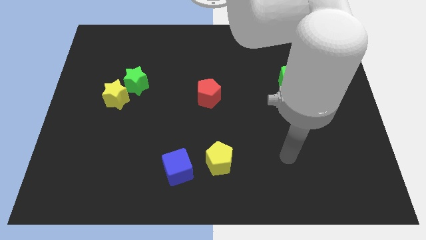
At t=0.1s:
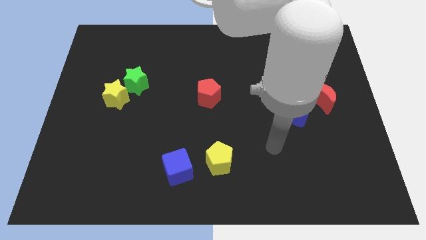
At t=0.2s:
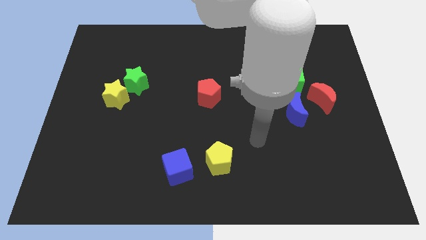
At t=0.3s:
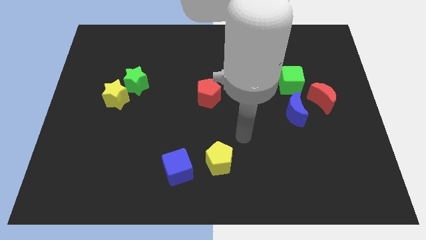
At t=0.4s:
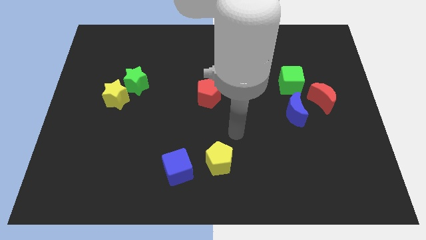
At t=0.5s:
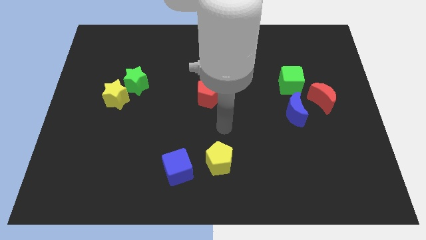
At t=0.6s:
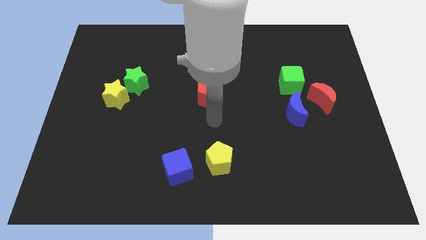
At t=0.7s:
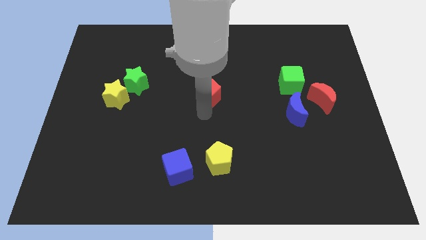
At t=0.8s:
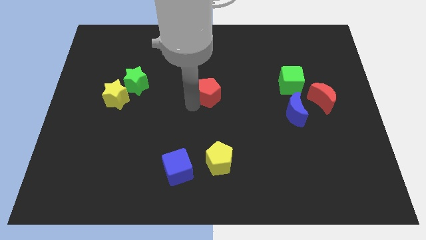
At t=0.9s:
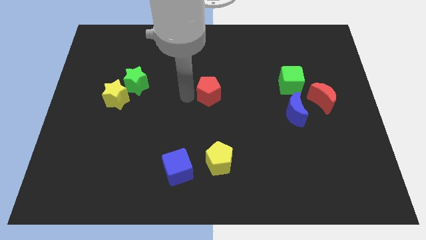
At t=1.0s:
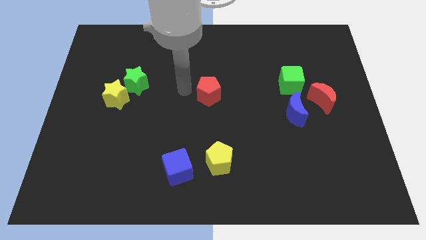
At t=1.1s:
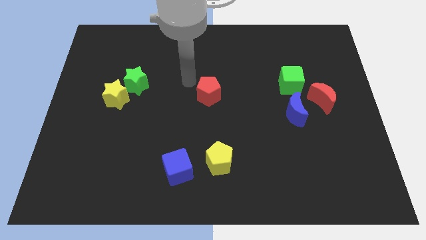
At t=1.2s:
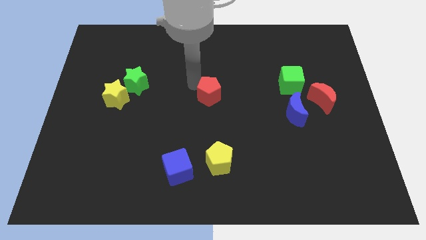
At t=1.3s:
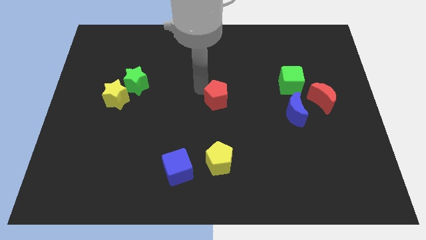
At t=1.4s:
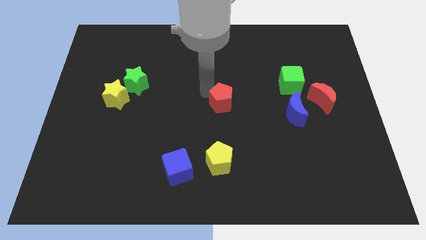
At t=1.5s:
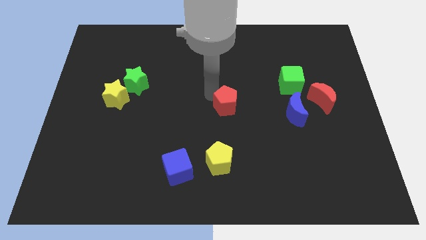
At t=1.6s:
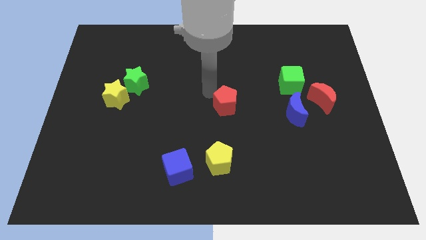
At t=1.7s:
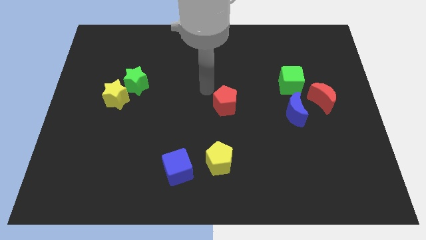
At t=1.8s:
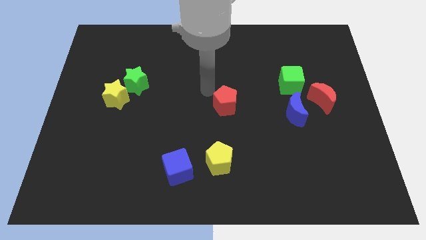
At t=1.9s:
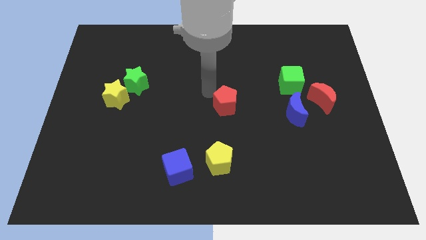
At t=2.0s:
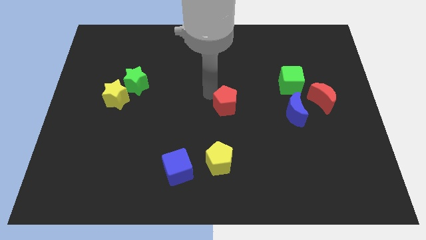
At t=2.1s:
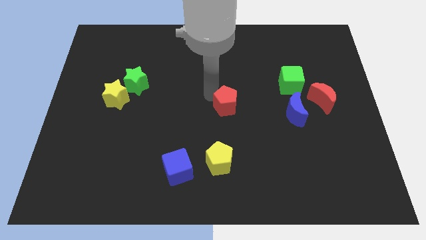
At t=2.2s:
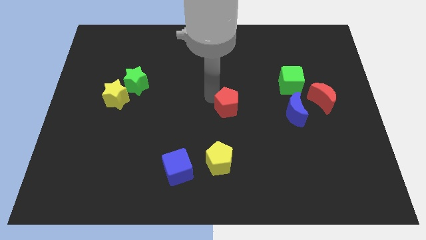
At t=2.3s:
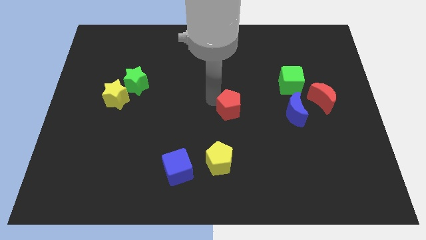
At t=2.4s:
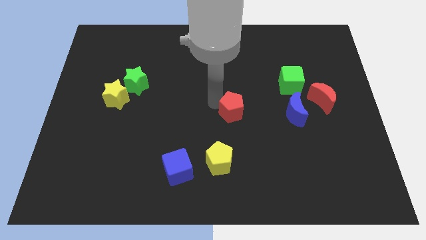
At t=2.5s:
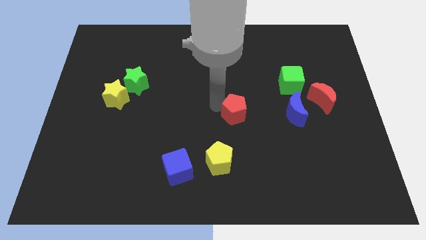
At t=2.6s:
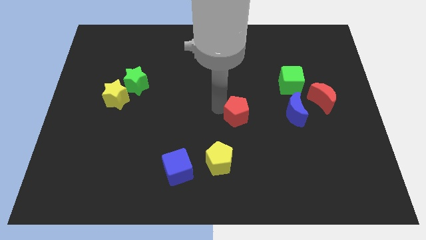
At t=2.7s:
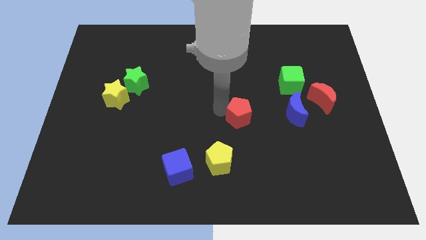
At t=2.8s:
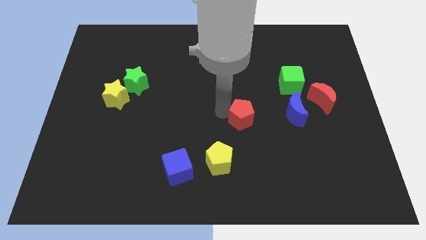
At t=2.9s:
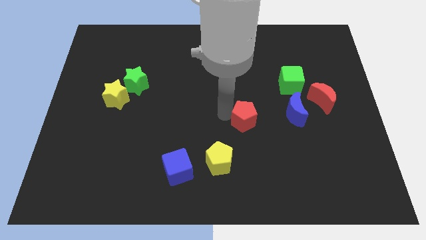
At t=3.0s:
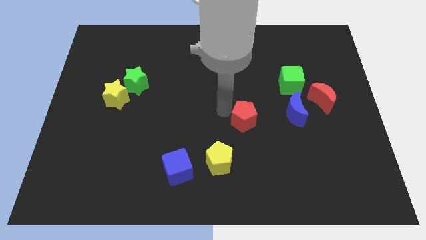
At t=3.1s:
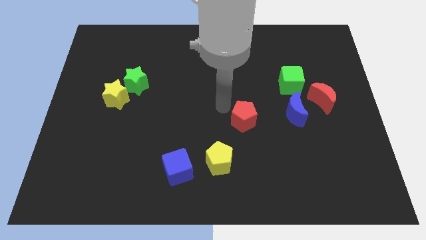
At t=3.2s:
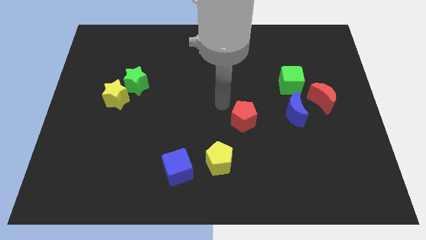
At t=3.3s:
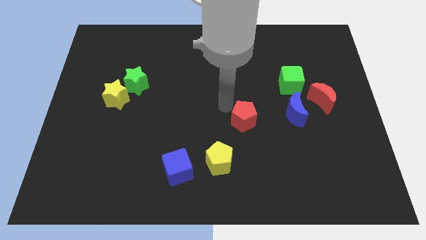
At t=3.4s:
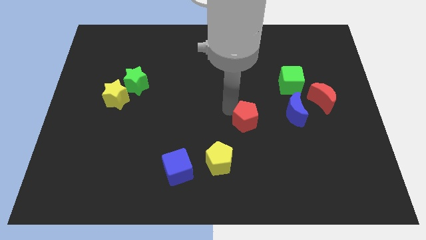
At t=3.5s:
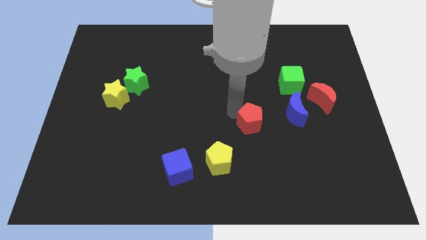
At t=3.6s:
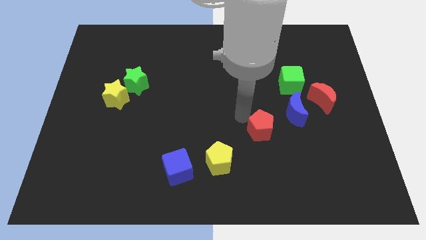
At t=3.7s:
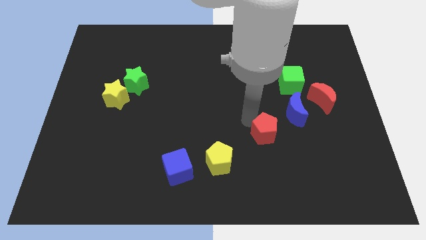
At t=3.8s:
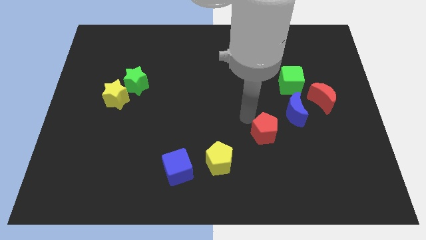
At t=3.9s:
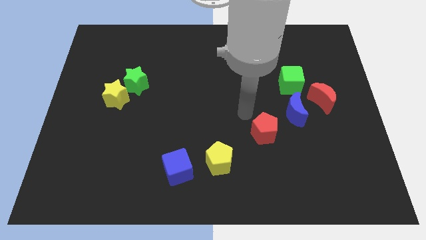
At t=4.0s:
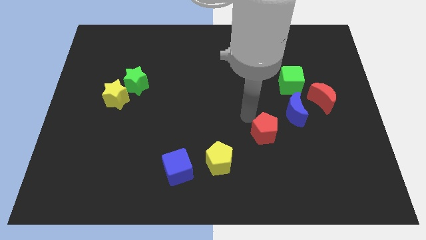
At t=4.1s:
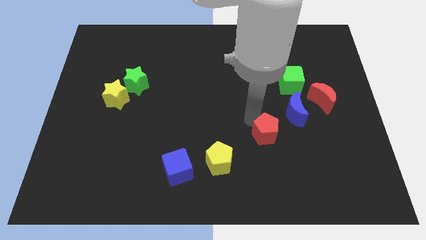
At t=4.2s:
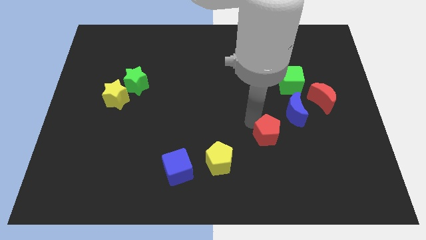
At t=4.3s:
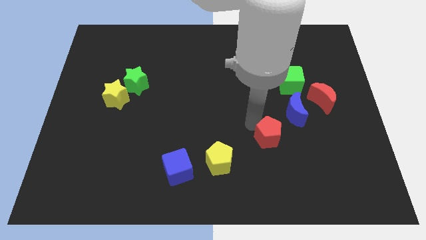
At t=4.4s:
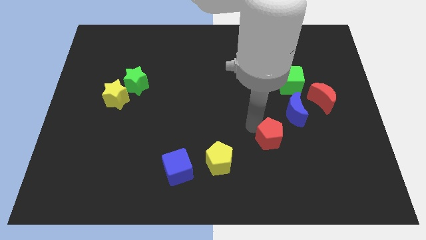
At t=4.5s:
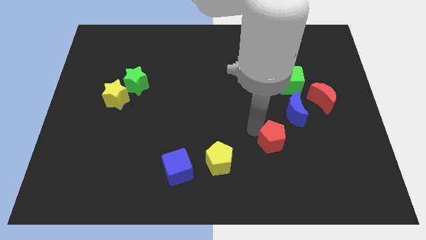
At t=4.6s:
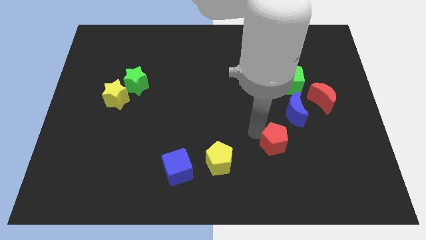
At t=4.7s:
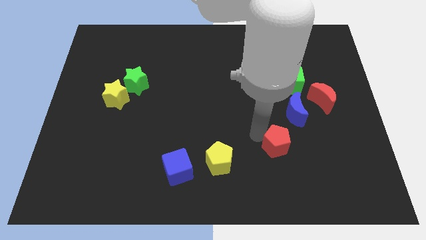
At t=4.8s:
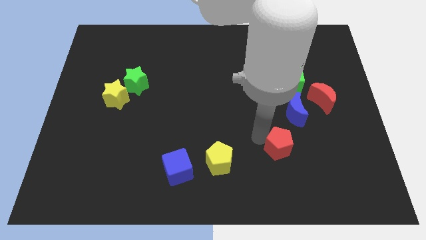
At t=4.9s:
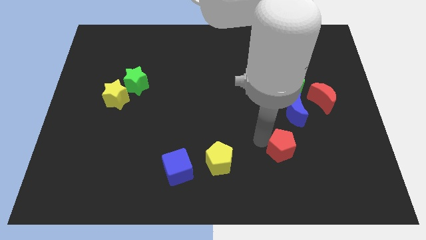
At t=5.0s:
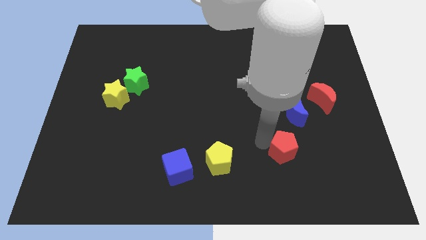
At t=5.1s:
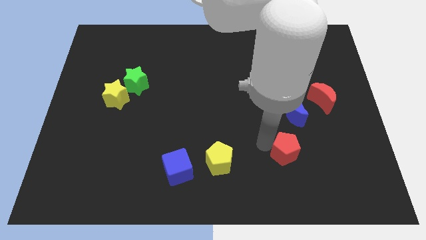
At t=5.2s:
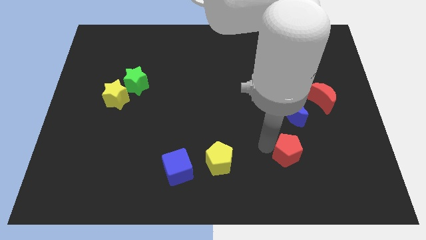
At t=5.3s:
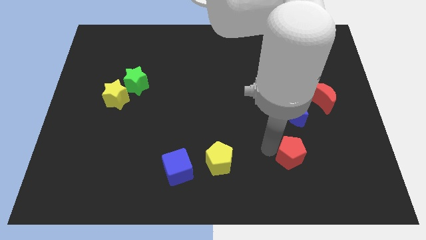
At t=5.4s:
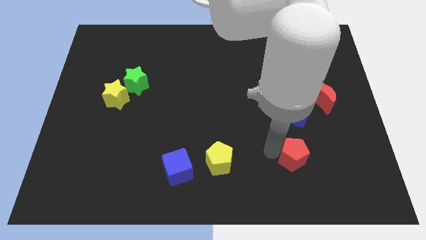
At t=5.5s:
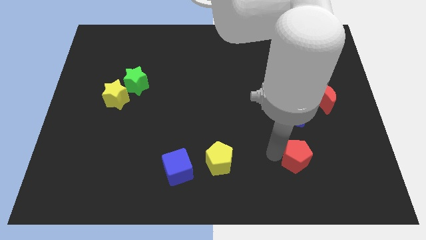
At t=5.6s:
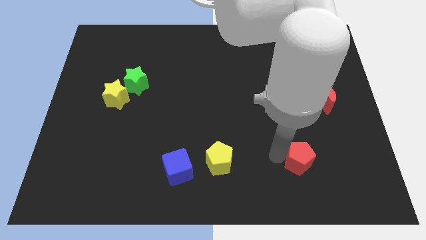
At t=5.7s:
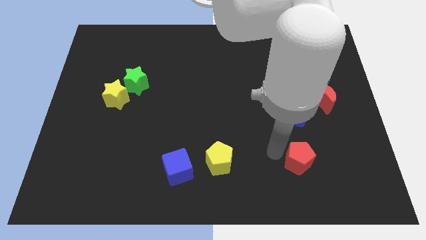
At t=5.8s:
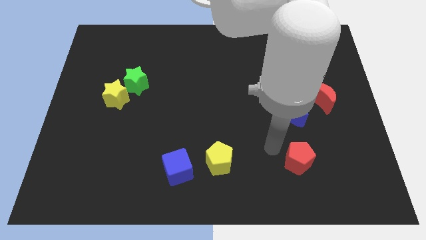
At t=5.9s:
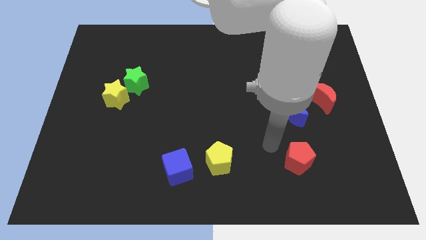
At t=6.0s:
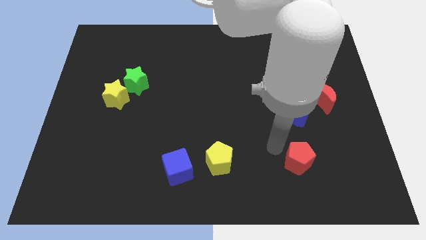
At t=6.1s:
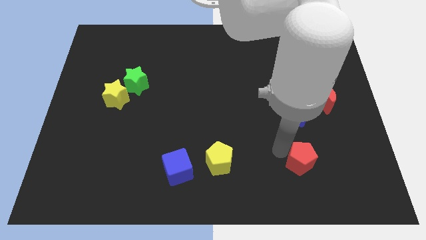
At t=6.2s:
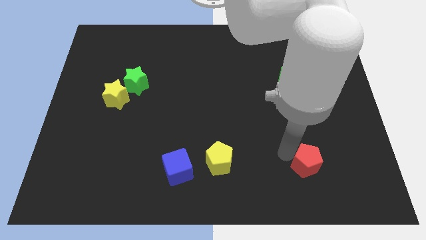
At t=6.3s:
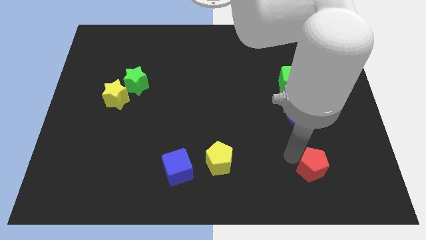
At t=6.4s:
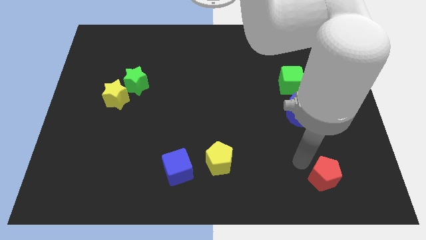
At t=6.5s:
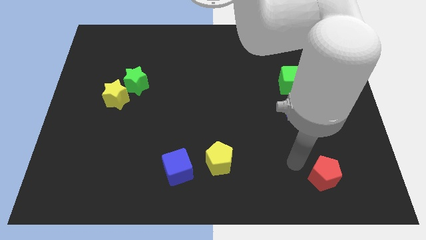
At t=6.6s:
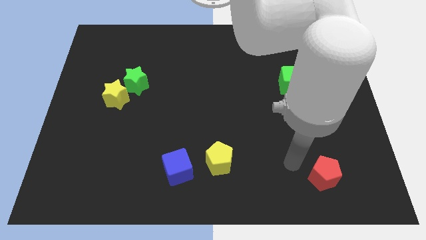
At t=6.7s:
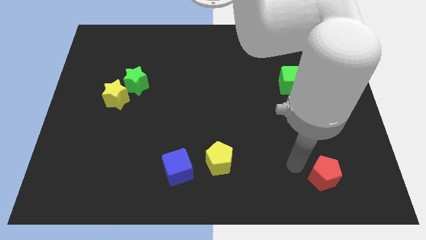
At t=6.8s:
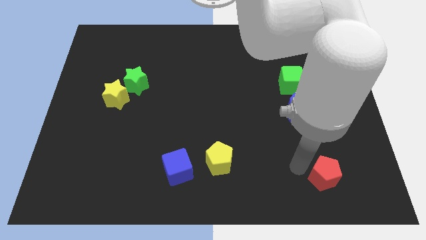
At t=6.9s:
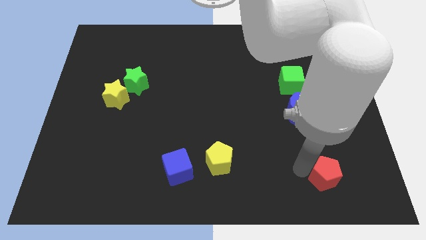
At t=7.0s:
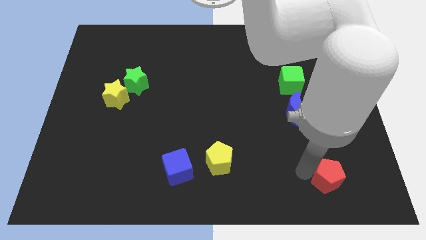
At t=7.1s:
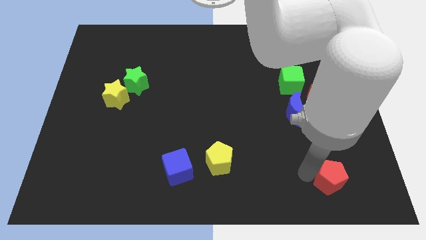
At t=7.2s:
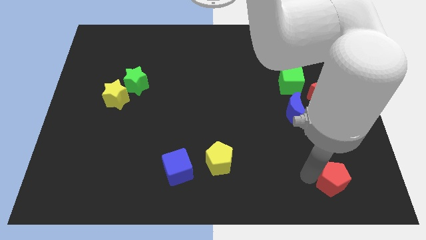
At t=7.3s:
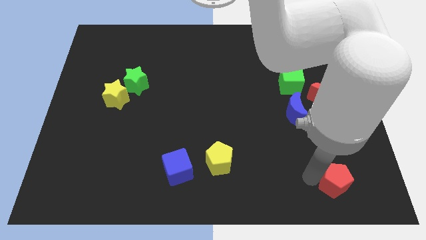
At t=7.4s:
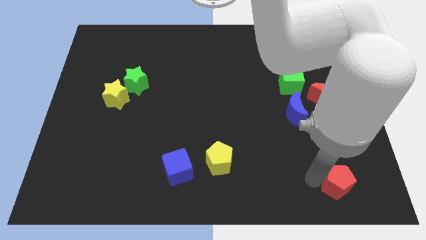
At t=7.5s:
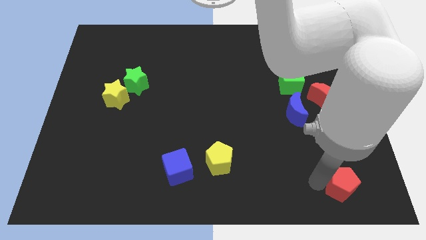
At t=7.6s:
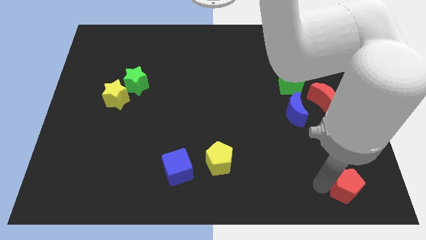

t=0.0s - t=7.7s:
put the red pentagon to the bottom right of the board
